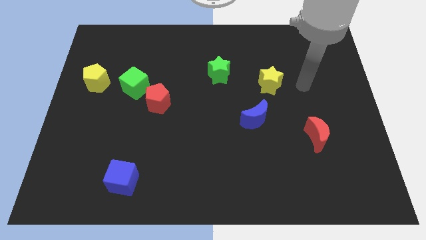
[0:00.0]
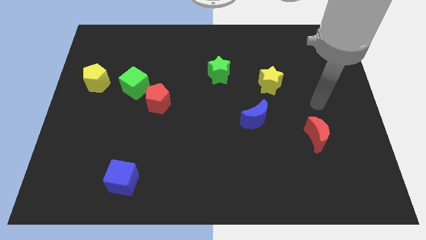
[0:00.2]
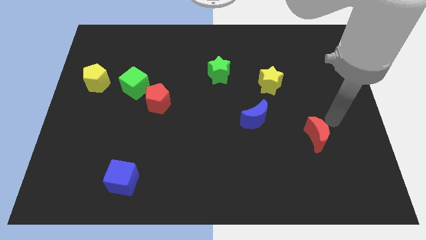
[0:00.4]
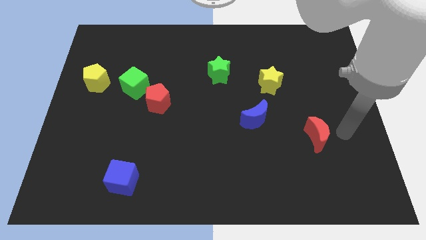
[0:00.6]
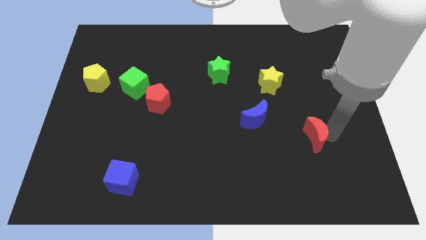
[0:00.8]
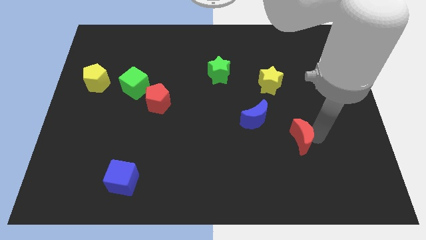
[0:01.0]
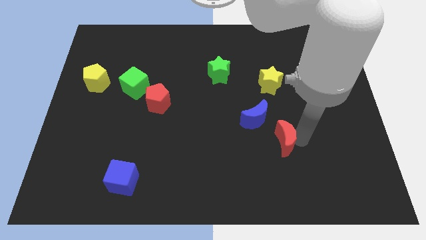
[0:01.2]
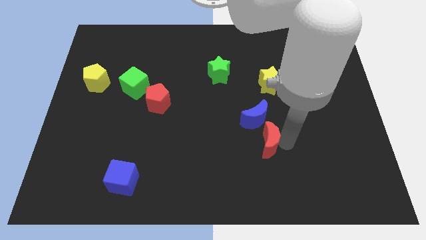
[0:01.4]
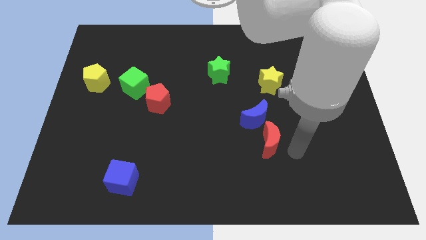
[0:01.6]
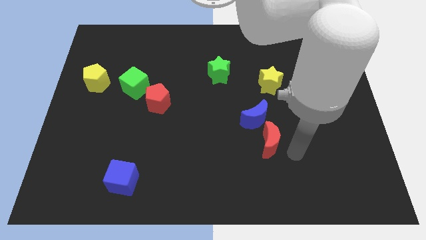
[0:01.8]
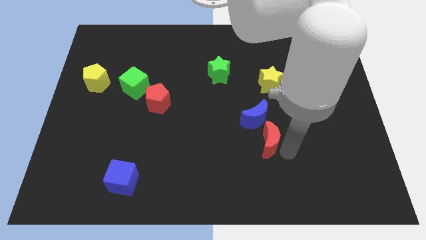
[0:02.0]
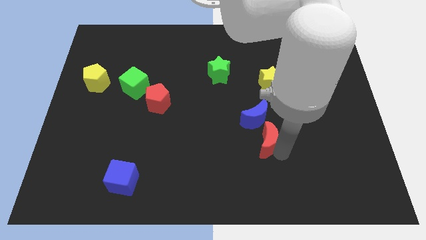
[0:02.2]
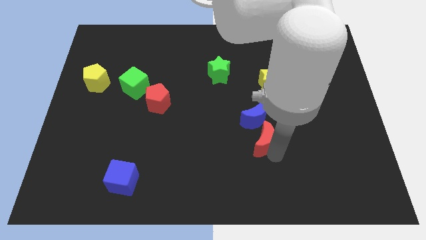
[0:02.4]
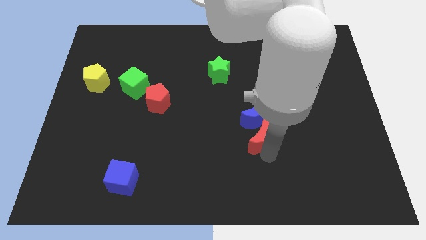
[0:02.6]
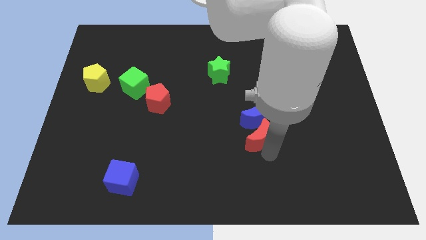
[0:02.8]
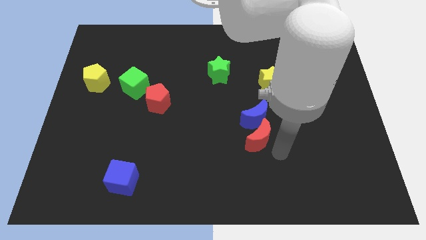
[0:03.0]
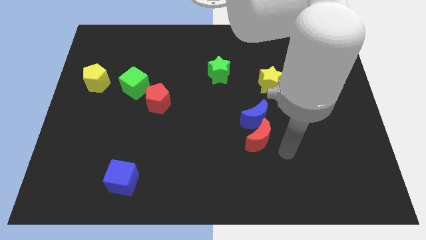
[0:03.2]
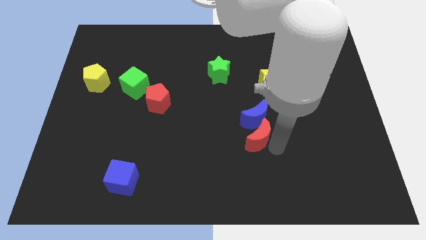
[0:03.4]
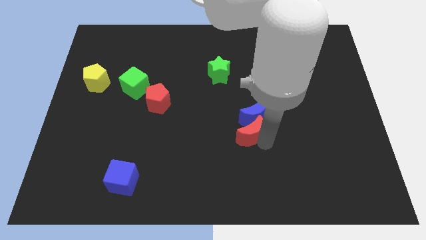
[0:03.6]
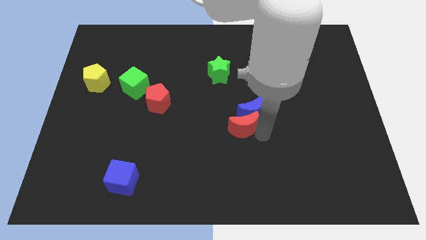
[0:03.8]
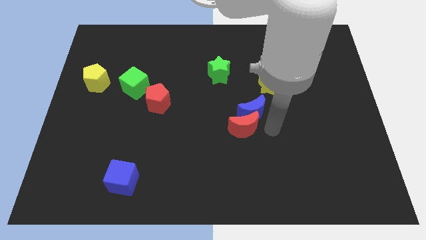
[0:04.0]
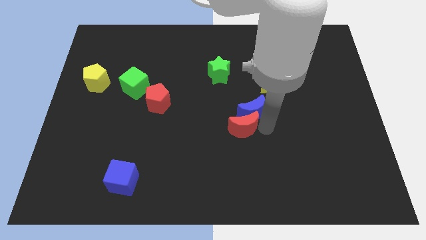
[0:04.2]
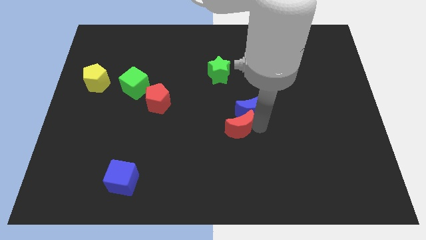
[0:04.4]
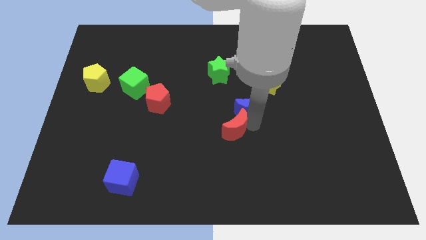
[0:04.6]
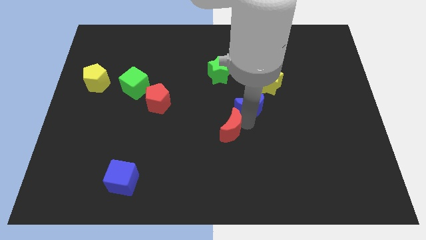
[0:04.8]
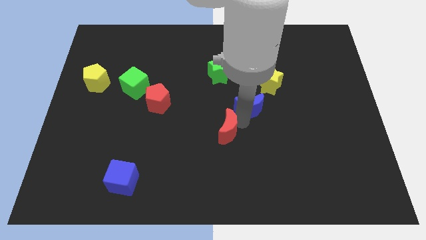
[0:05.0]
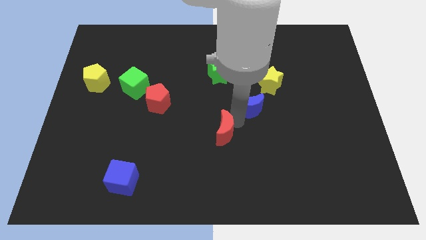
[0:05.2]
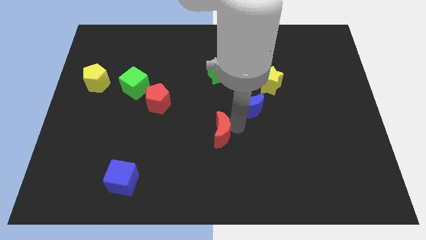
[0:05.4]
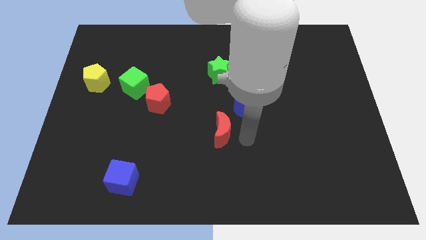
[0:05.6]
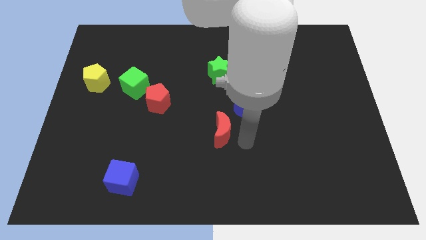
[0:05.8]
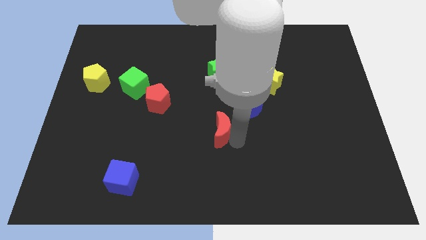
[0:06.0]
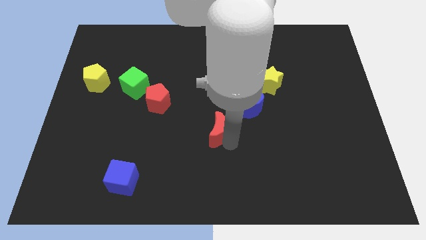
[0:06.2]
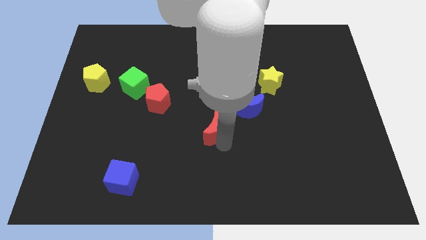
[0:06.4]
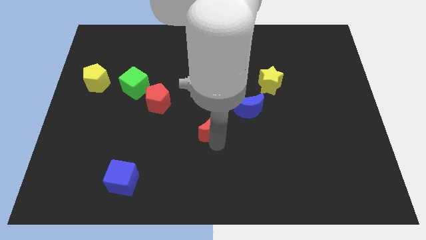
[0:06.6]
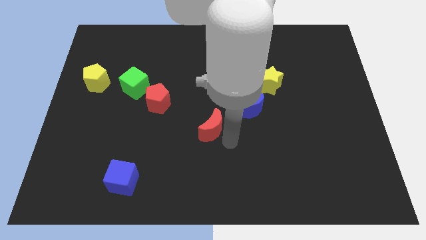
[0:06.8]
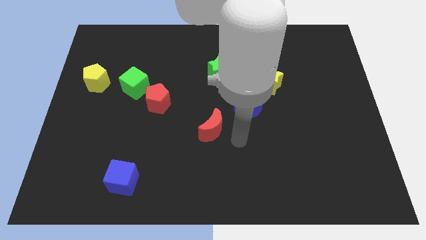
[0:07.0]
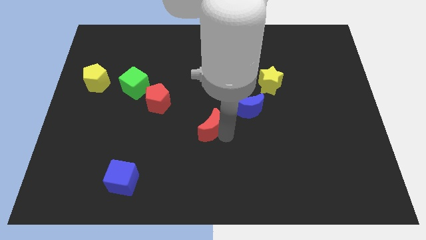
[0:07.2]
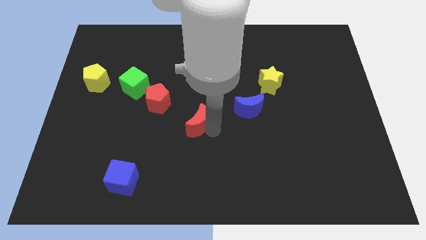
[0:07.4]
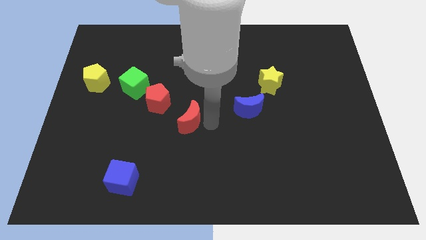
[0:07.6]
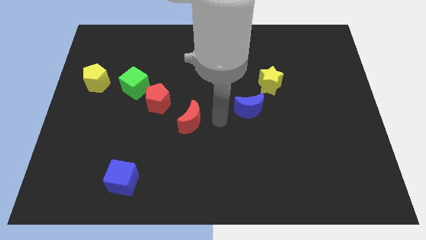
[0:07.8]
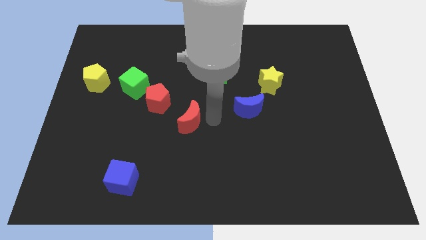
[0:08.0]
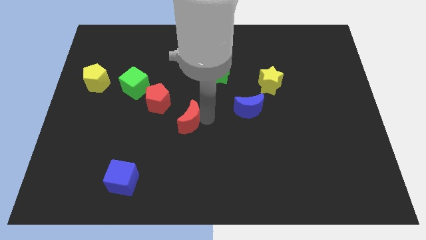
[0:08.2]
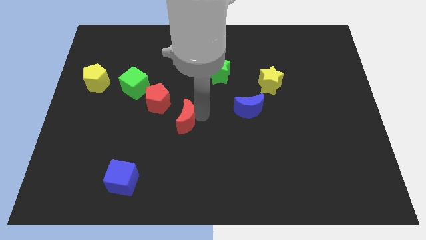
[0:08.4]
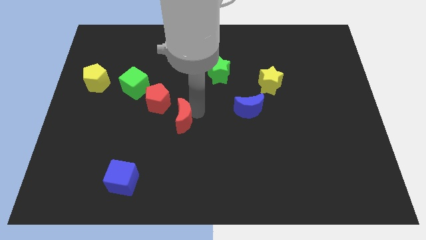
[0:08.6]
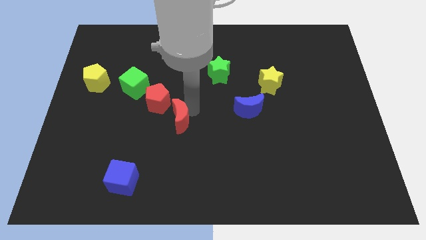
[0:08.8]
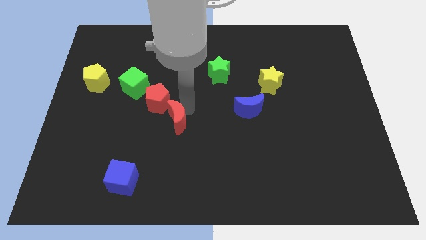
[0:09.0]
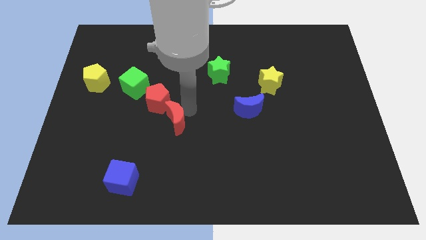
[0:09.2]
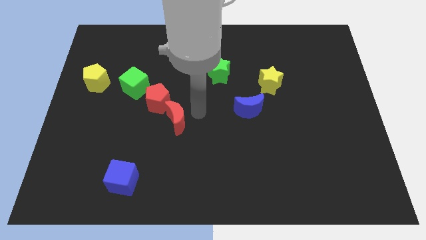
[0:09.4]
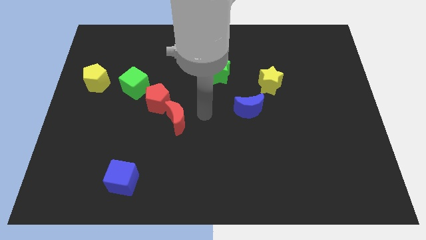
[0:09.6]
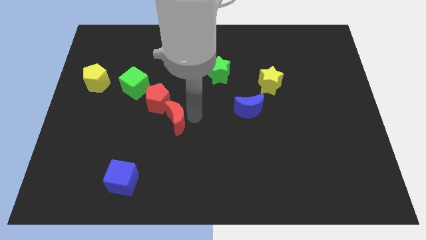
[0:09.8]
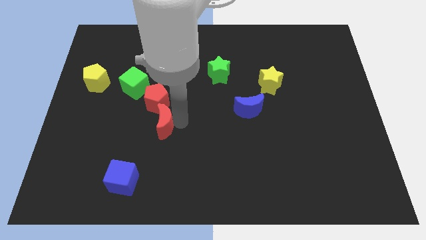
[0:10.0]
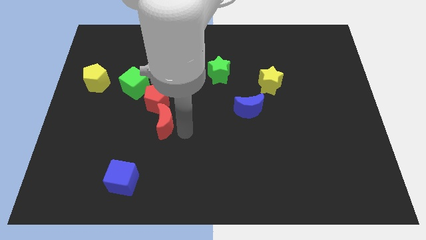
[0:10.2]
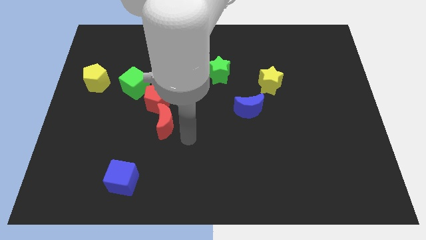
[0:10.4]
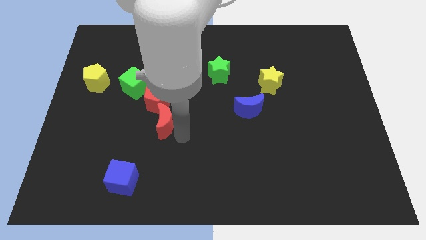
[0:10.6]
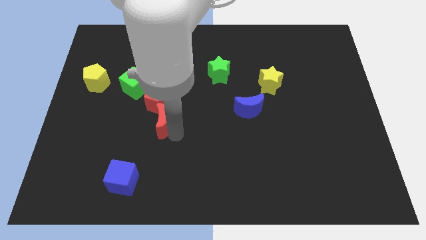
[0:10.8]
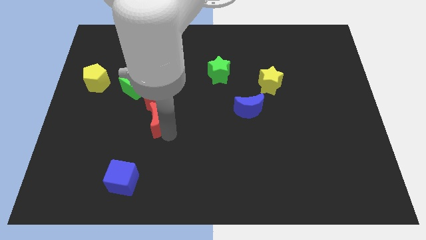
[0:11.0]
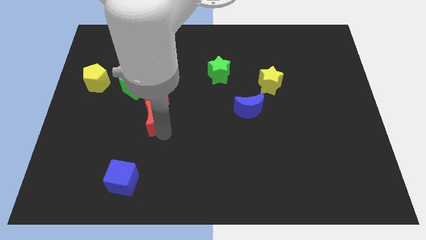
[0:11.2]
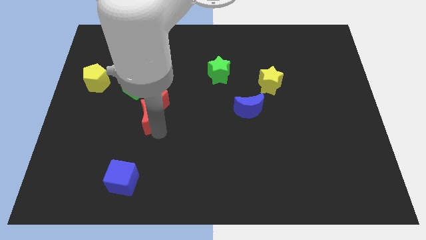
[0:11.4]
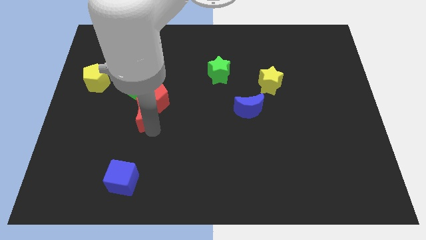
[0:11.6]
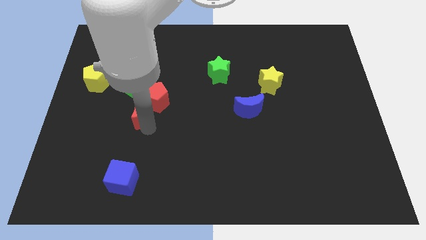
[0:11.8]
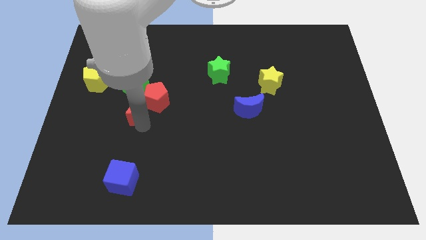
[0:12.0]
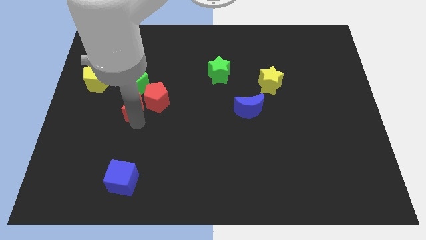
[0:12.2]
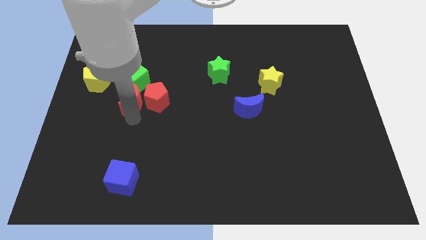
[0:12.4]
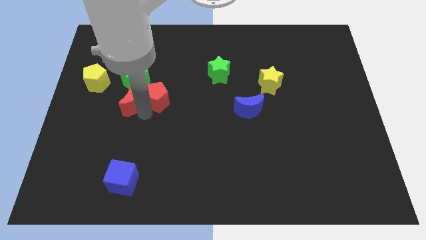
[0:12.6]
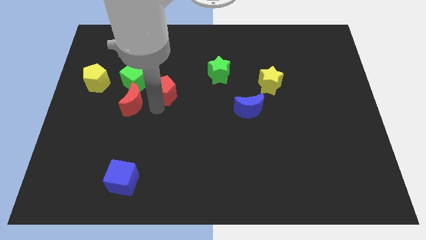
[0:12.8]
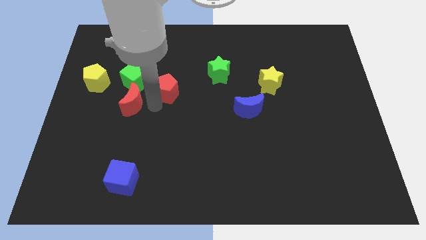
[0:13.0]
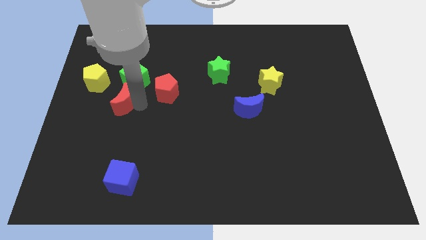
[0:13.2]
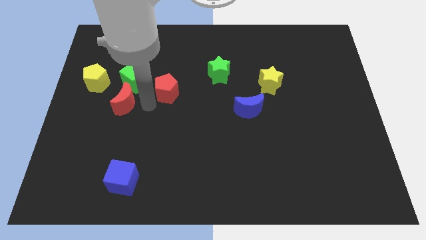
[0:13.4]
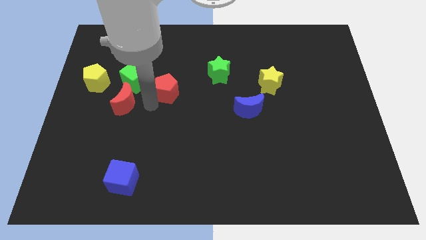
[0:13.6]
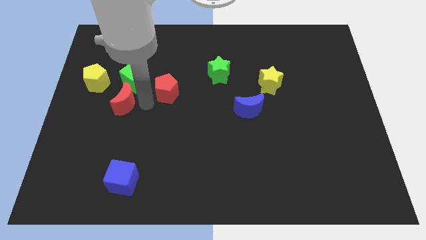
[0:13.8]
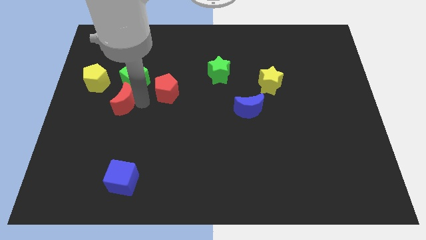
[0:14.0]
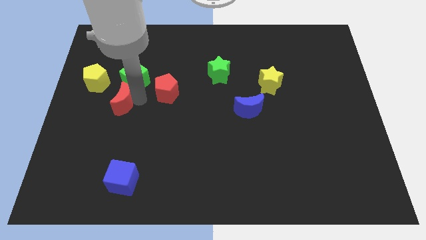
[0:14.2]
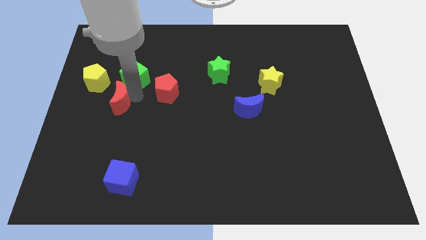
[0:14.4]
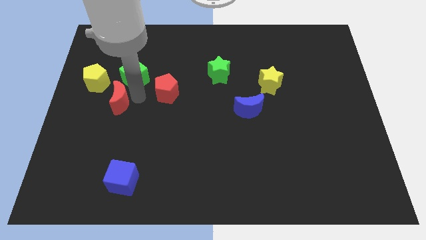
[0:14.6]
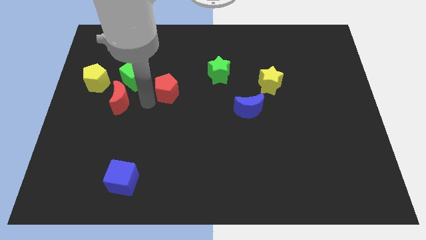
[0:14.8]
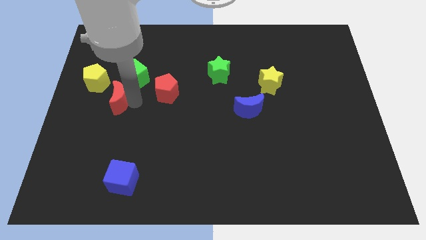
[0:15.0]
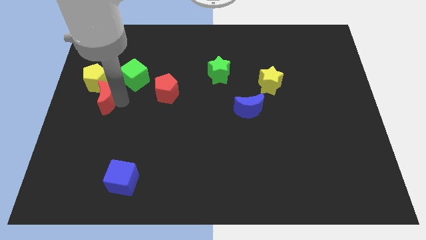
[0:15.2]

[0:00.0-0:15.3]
slide the red moon to the left side
